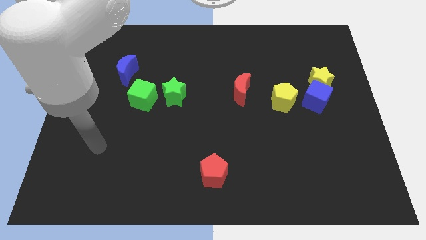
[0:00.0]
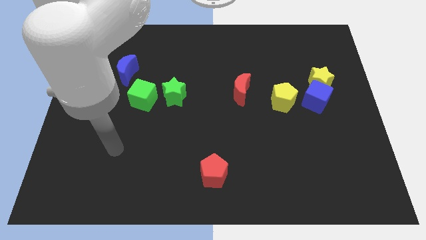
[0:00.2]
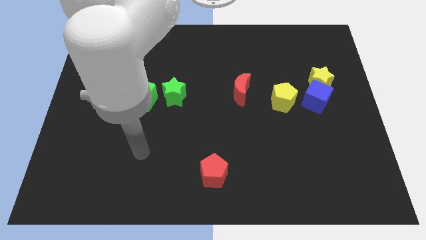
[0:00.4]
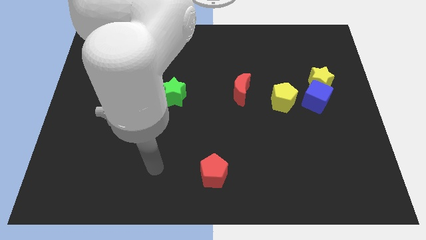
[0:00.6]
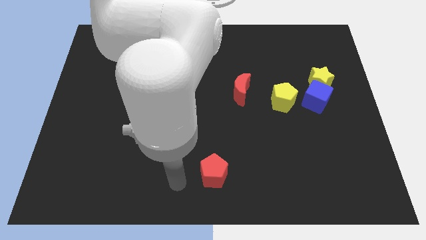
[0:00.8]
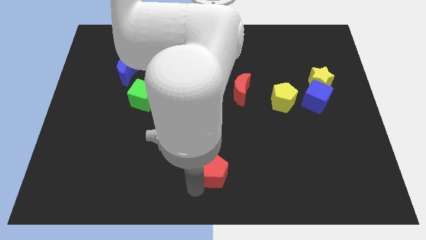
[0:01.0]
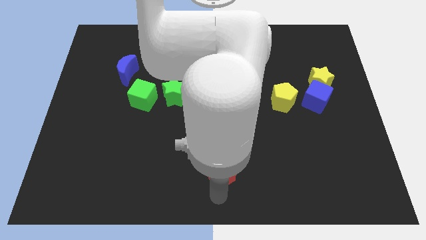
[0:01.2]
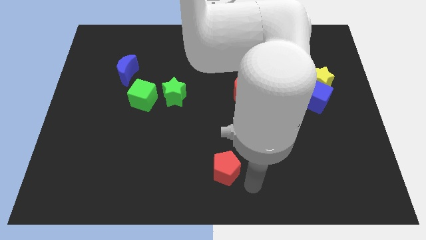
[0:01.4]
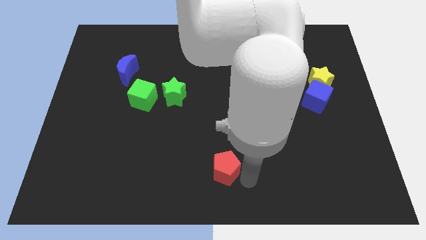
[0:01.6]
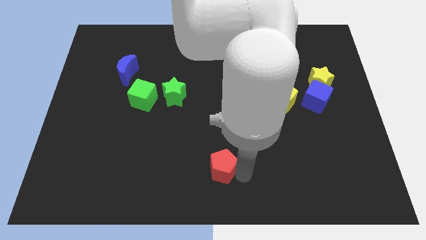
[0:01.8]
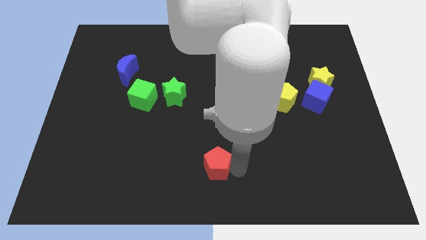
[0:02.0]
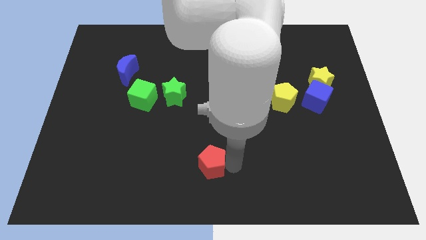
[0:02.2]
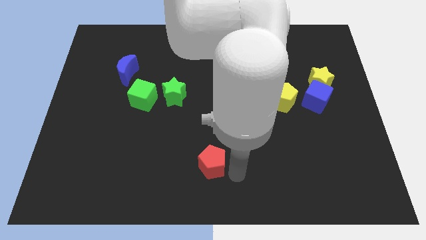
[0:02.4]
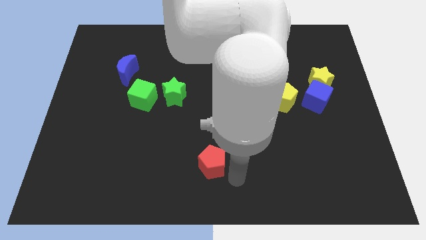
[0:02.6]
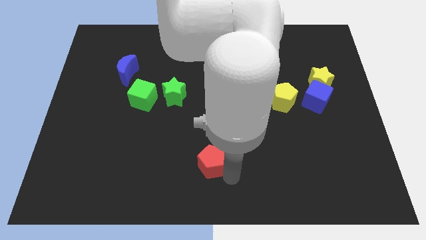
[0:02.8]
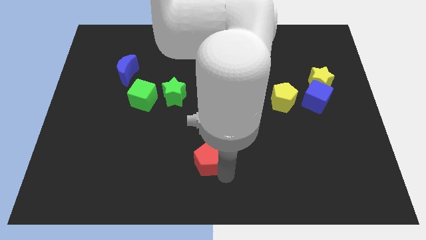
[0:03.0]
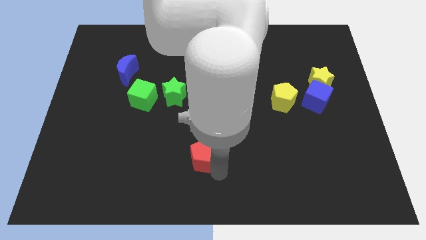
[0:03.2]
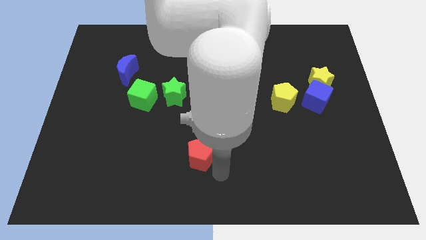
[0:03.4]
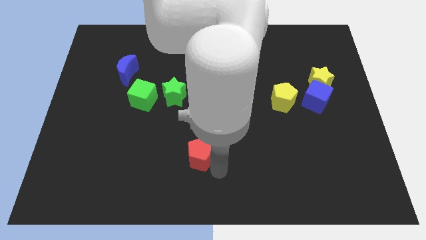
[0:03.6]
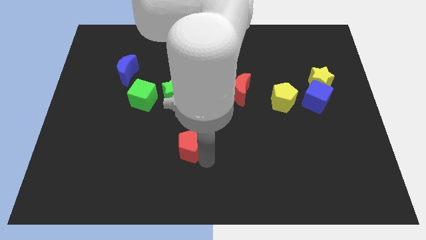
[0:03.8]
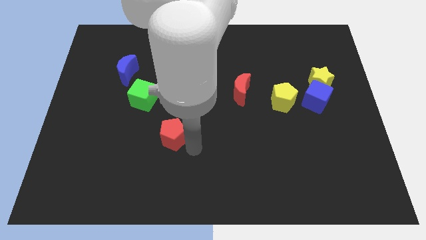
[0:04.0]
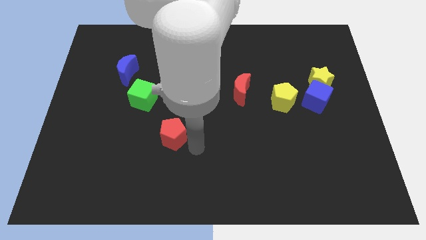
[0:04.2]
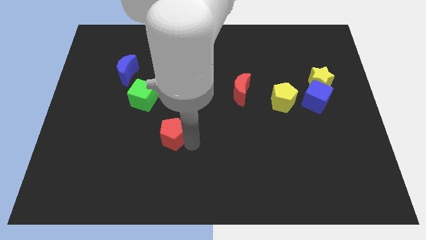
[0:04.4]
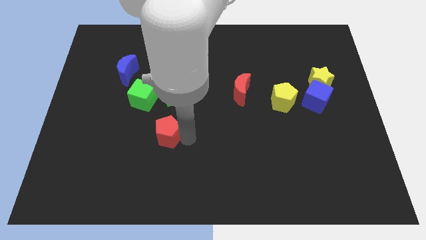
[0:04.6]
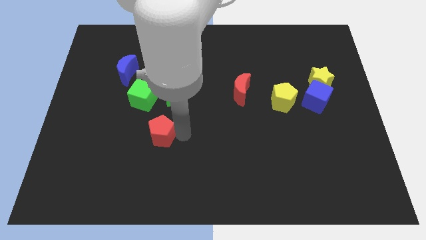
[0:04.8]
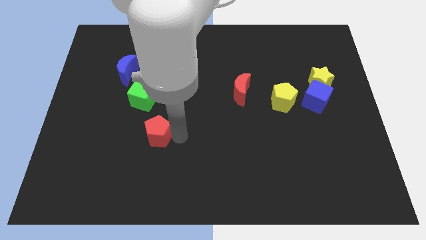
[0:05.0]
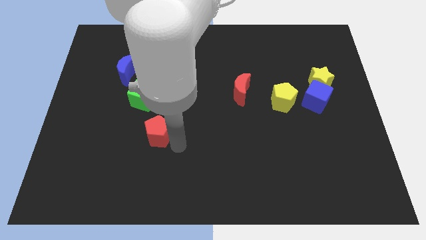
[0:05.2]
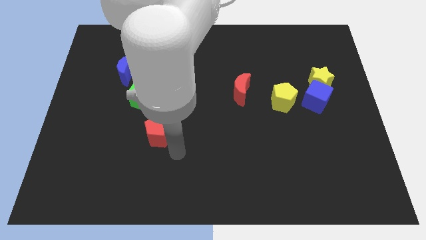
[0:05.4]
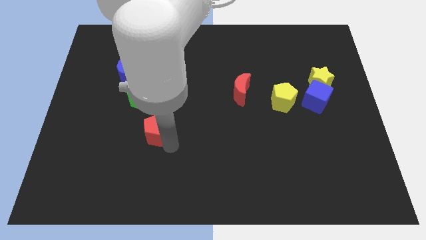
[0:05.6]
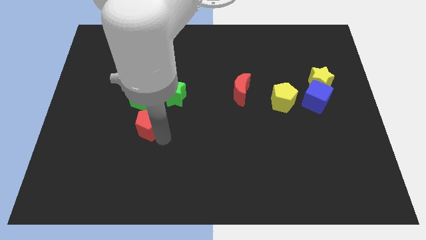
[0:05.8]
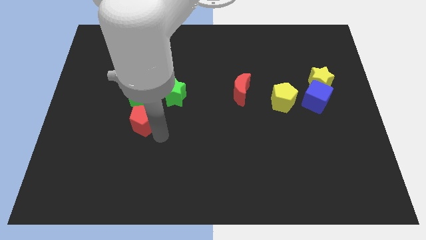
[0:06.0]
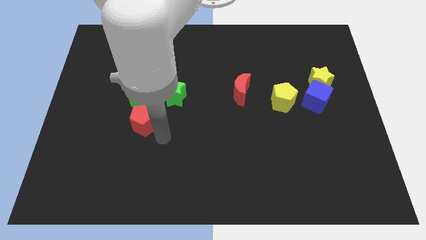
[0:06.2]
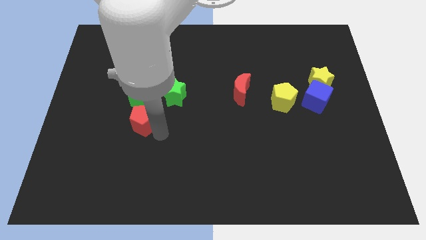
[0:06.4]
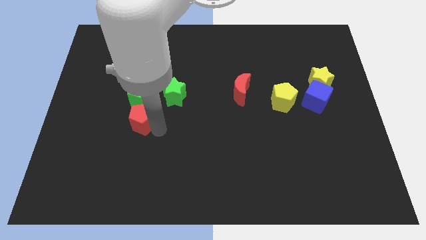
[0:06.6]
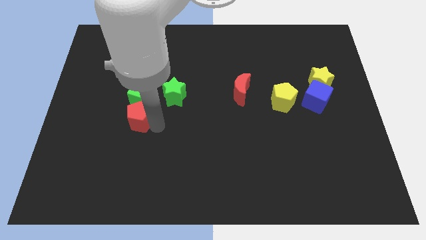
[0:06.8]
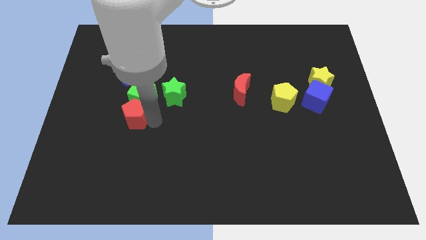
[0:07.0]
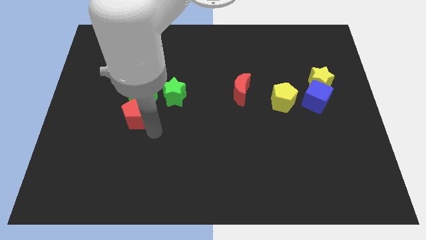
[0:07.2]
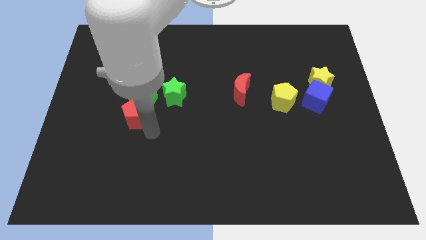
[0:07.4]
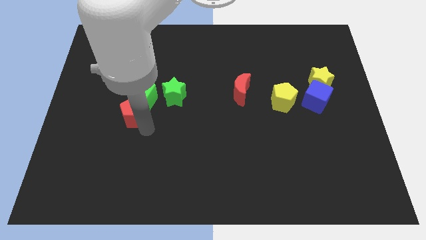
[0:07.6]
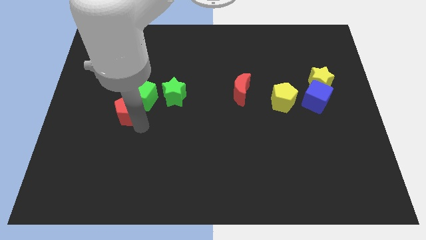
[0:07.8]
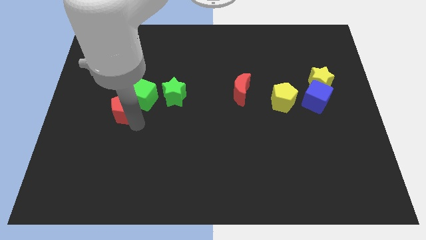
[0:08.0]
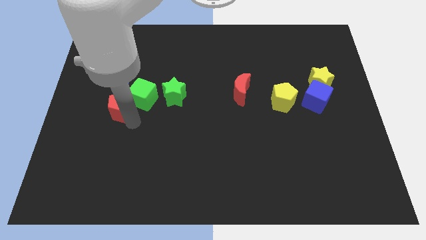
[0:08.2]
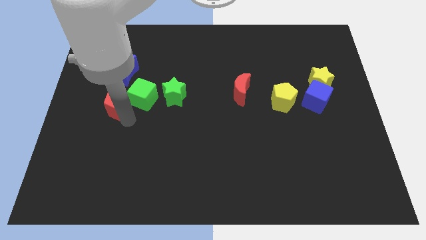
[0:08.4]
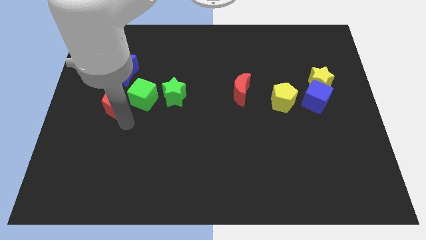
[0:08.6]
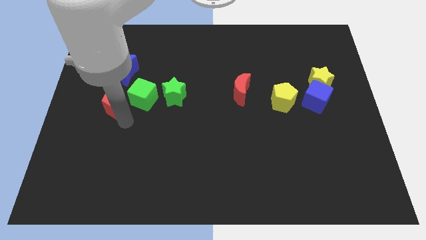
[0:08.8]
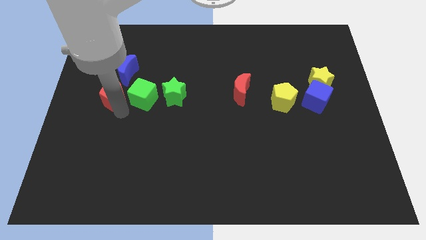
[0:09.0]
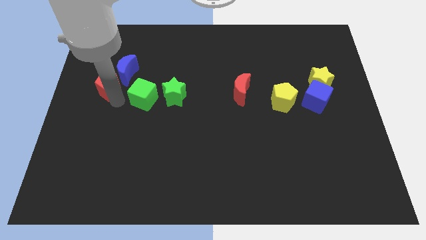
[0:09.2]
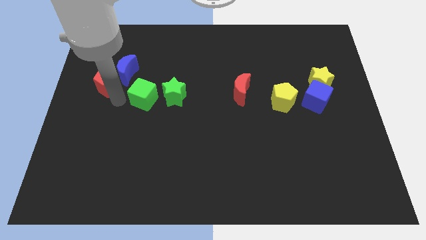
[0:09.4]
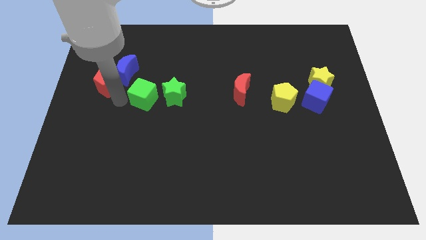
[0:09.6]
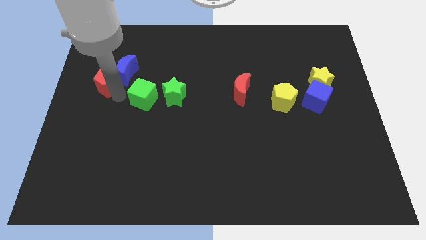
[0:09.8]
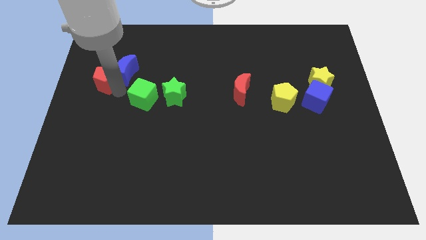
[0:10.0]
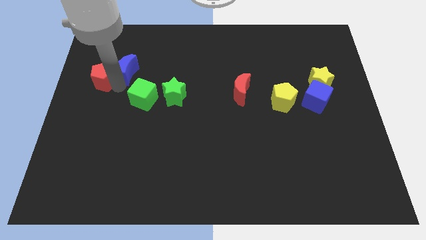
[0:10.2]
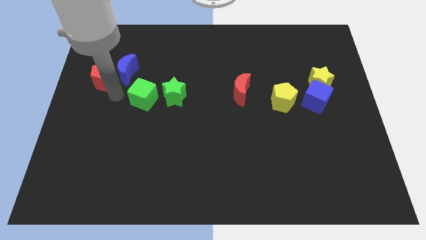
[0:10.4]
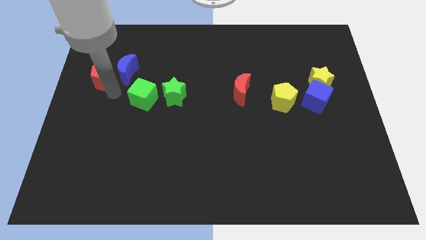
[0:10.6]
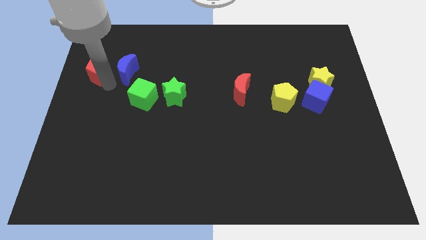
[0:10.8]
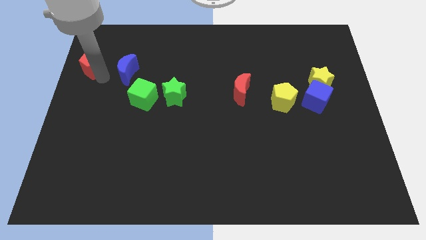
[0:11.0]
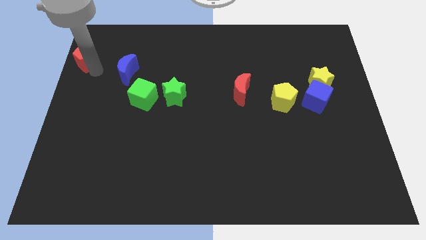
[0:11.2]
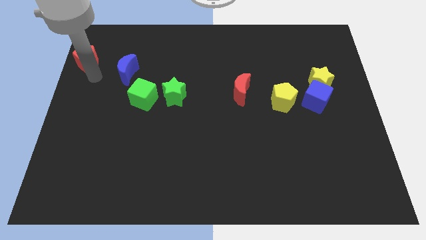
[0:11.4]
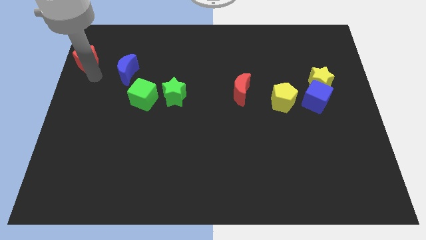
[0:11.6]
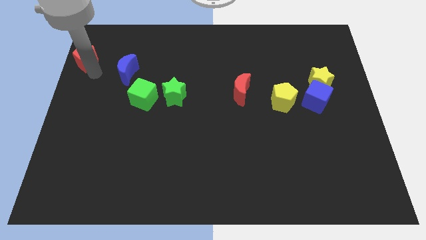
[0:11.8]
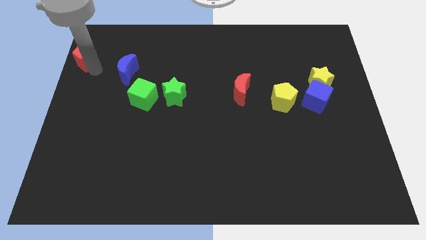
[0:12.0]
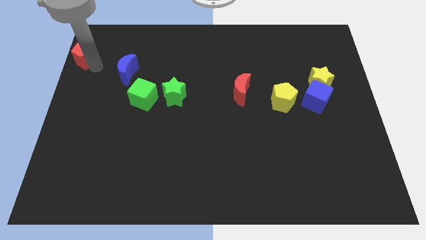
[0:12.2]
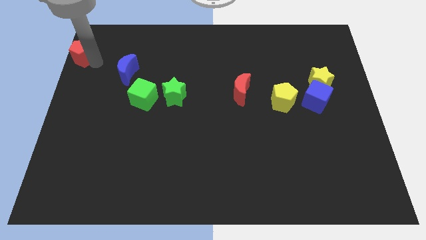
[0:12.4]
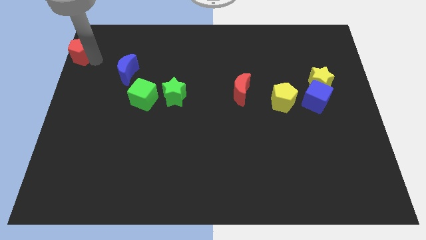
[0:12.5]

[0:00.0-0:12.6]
push the red pentagon to the top left
